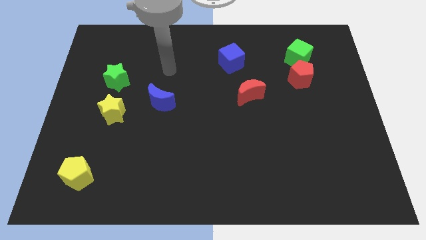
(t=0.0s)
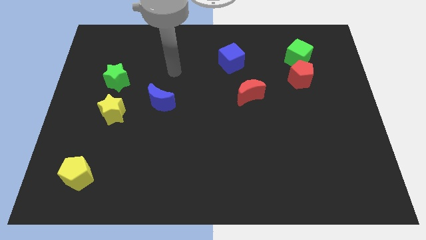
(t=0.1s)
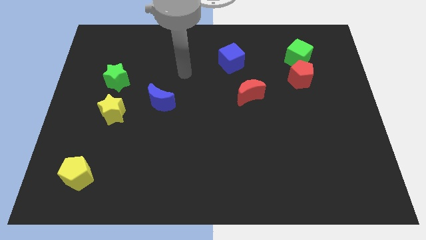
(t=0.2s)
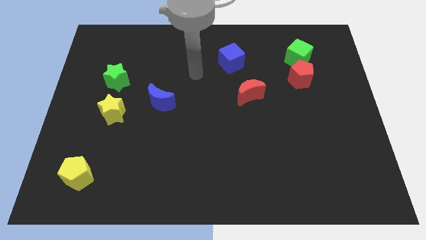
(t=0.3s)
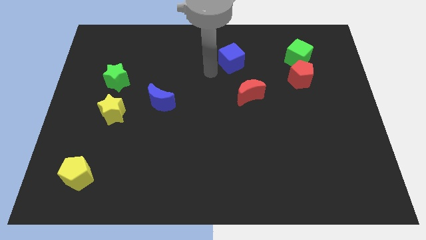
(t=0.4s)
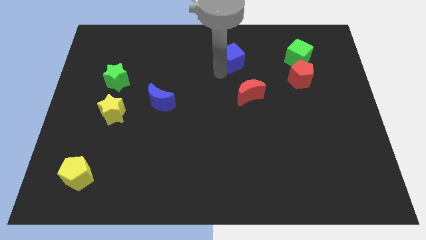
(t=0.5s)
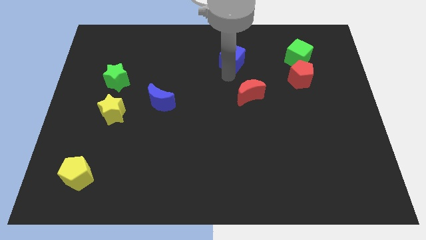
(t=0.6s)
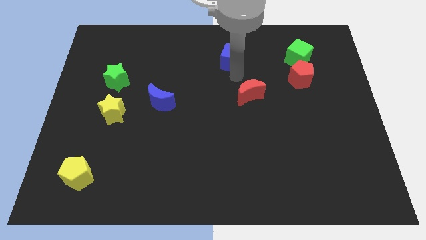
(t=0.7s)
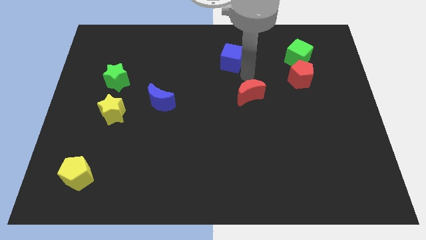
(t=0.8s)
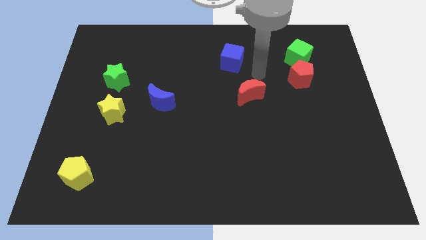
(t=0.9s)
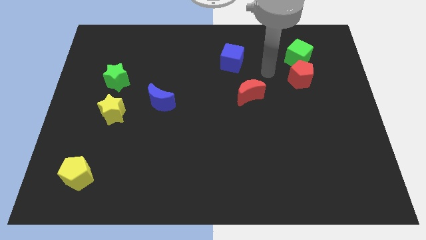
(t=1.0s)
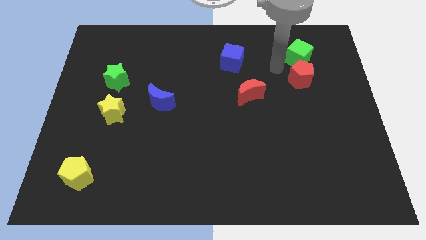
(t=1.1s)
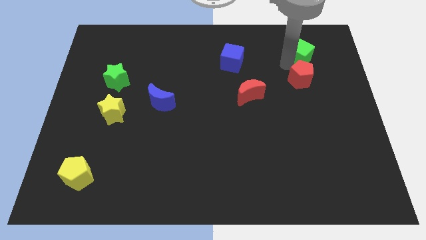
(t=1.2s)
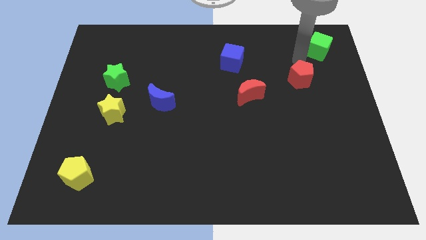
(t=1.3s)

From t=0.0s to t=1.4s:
pull the red pentagon apart from the green cube

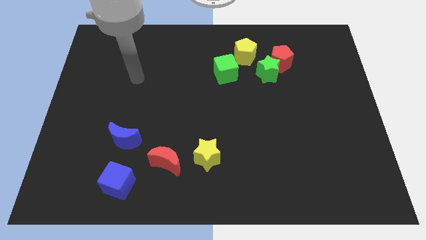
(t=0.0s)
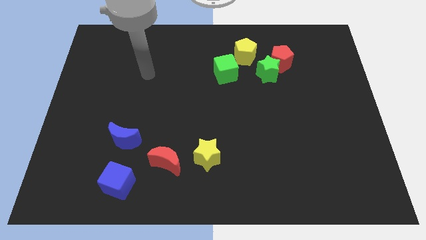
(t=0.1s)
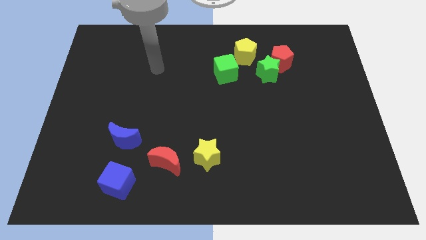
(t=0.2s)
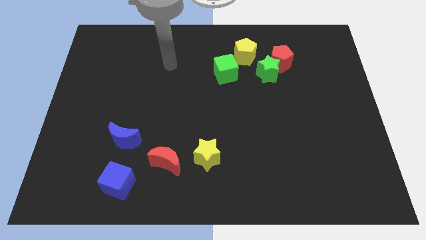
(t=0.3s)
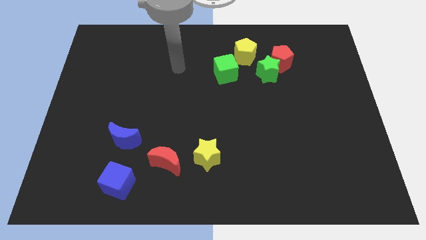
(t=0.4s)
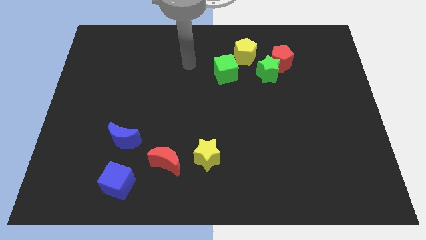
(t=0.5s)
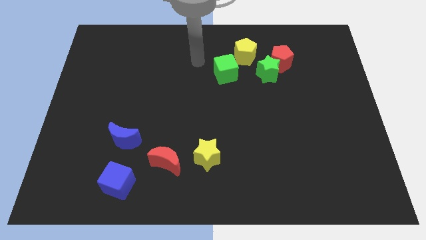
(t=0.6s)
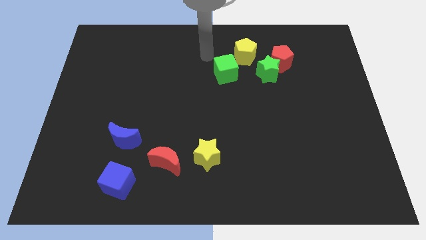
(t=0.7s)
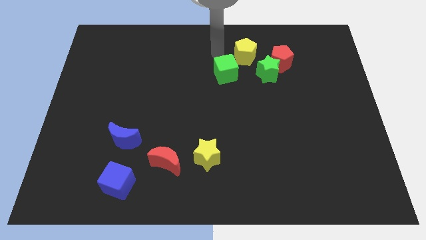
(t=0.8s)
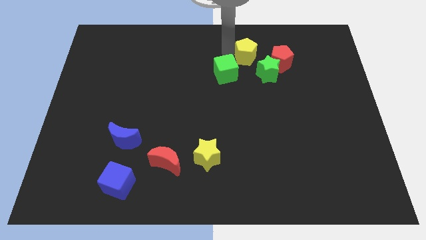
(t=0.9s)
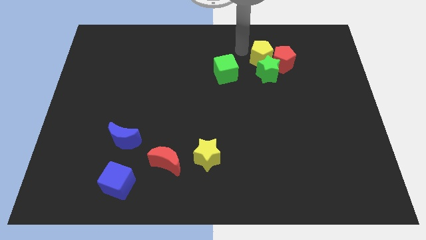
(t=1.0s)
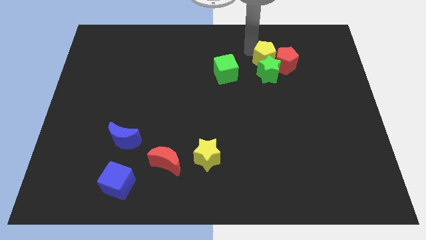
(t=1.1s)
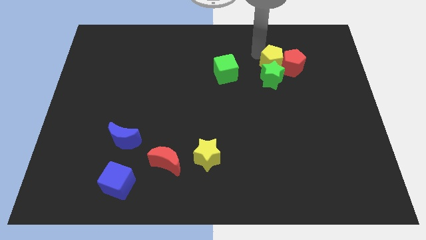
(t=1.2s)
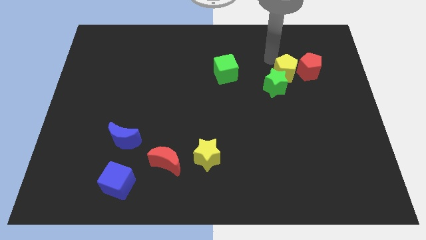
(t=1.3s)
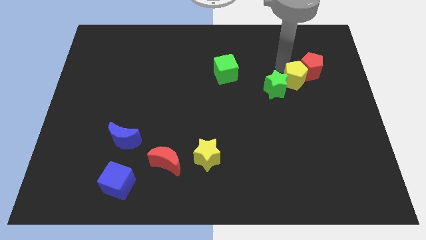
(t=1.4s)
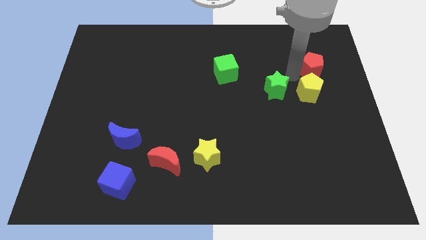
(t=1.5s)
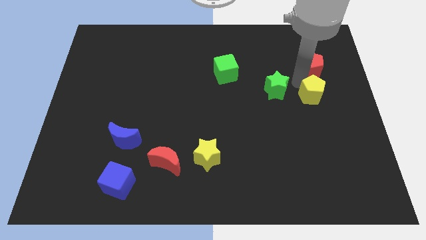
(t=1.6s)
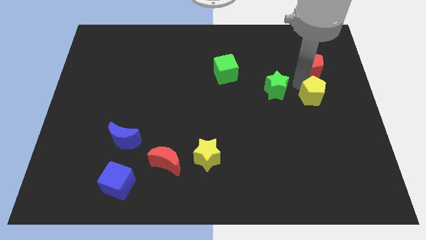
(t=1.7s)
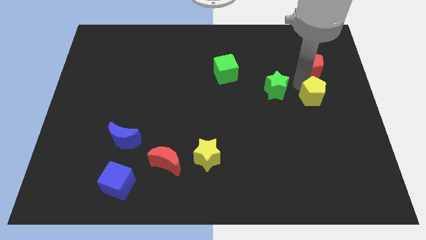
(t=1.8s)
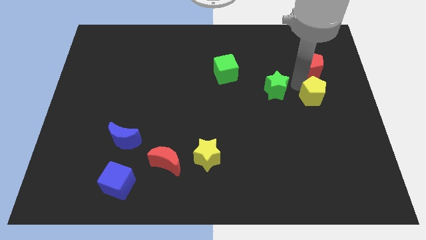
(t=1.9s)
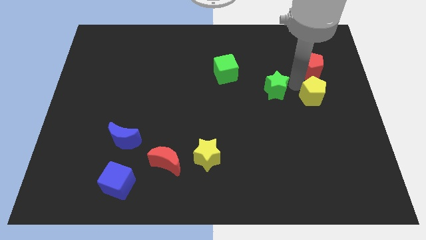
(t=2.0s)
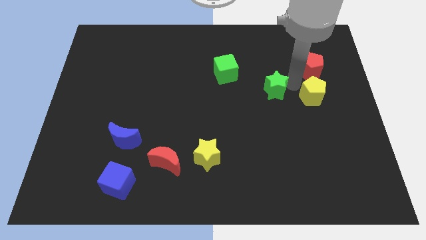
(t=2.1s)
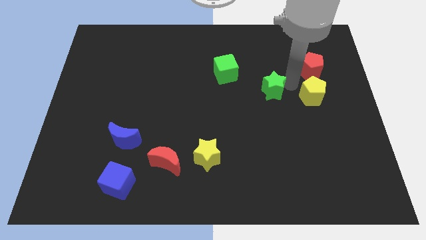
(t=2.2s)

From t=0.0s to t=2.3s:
pull the green star apart from the red pentagon and yellow pentagon

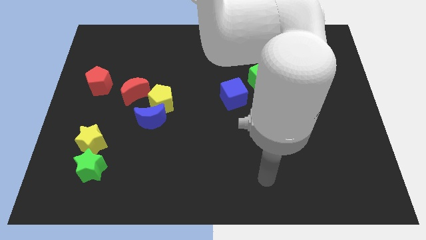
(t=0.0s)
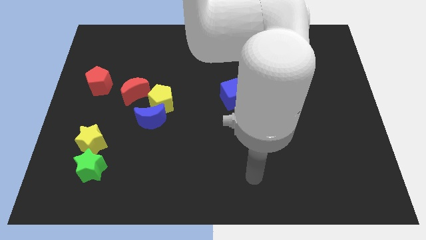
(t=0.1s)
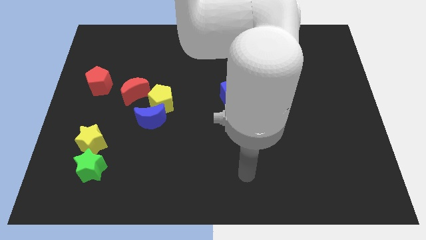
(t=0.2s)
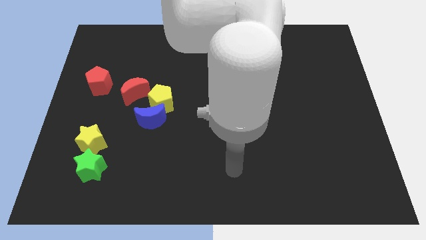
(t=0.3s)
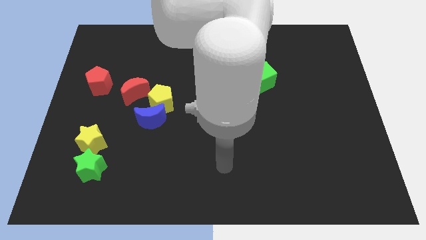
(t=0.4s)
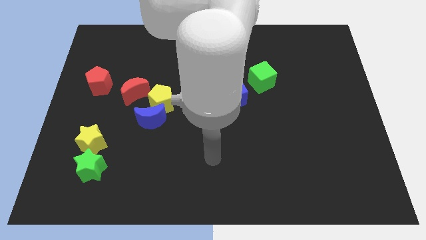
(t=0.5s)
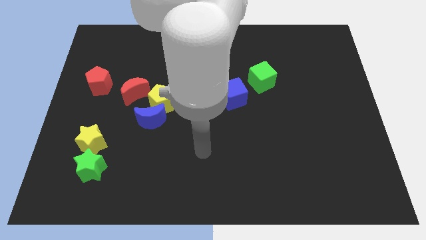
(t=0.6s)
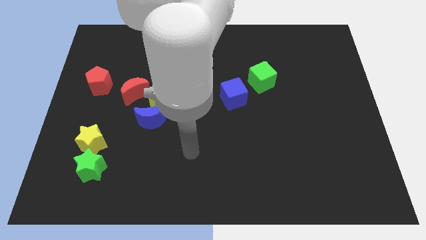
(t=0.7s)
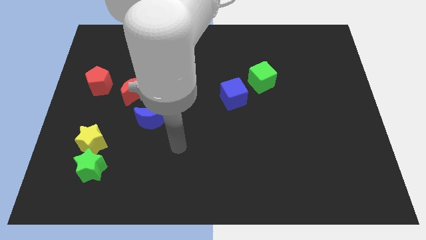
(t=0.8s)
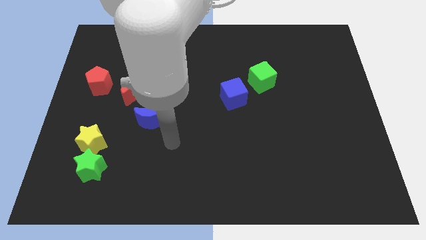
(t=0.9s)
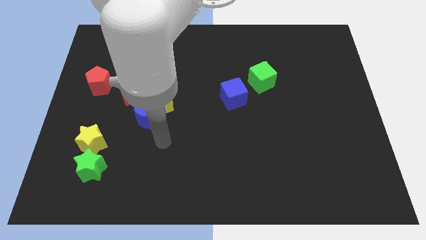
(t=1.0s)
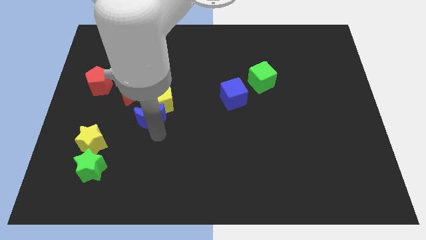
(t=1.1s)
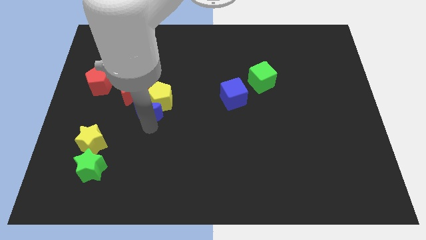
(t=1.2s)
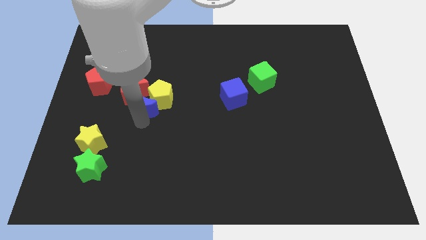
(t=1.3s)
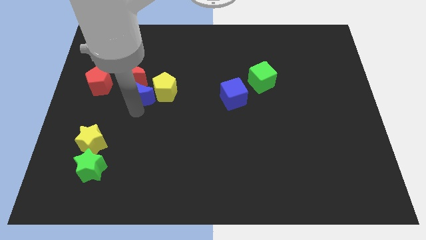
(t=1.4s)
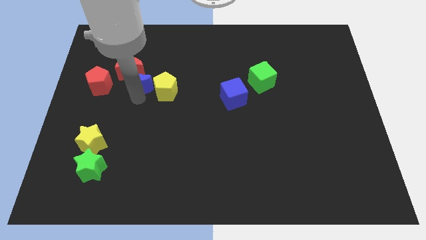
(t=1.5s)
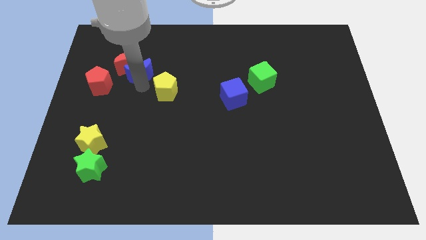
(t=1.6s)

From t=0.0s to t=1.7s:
separate the yellow pentagon from the blue moon and red moon

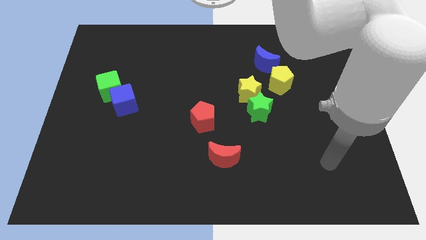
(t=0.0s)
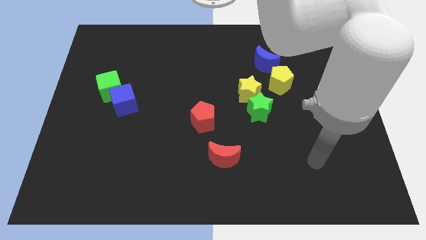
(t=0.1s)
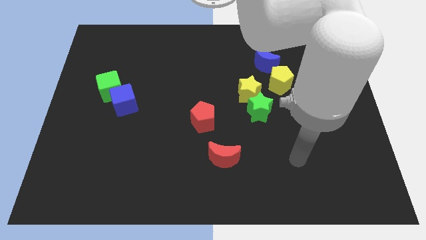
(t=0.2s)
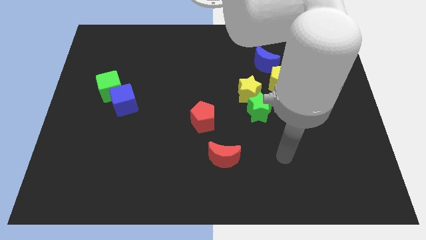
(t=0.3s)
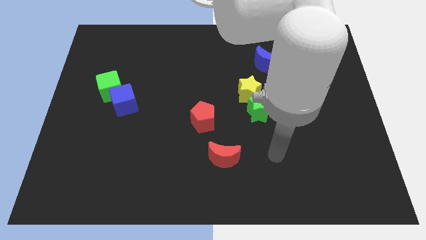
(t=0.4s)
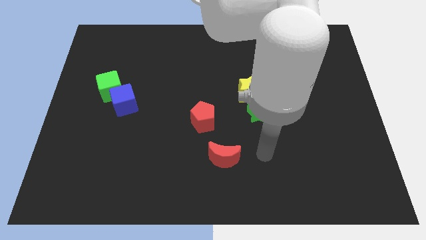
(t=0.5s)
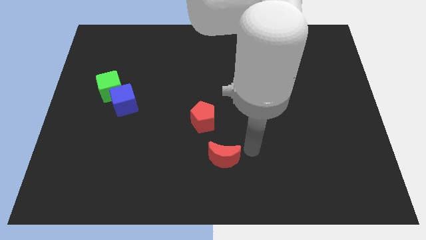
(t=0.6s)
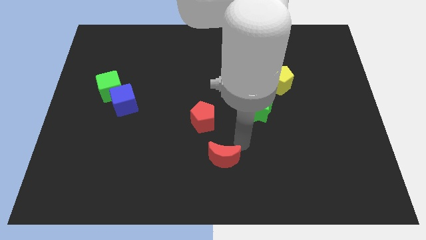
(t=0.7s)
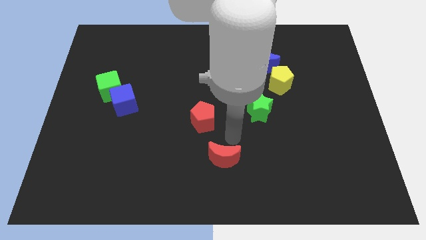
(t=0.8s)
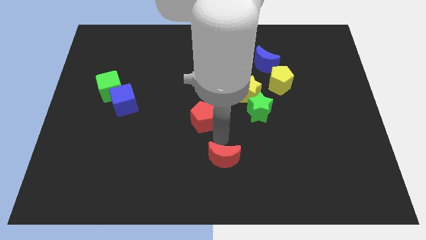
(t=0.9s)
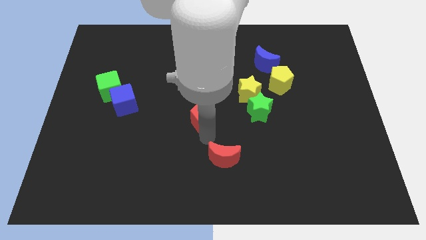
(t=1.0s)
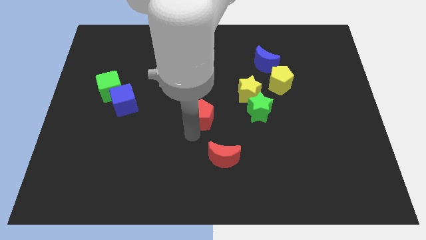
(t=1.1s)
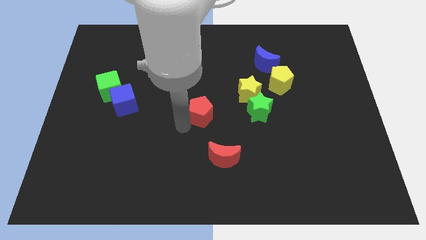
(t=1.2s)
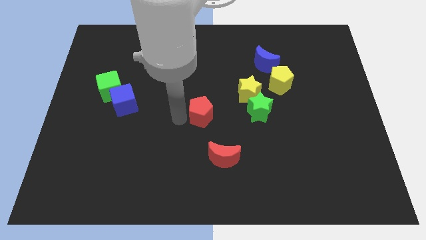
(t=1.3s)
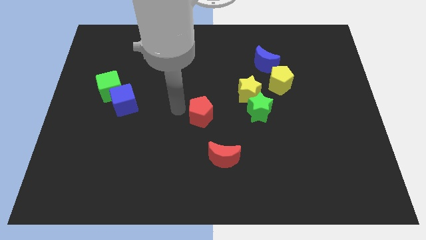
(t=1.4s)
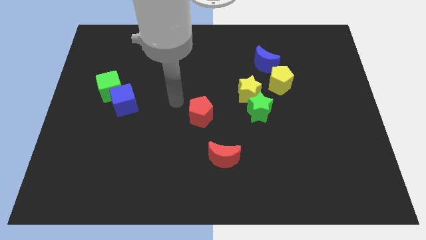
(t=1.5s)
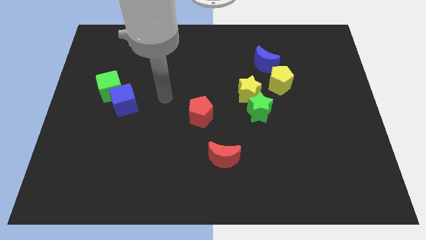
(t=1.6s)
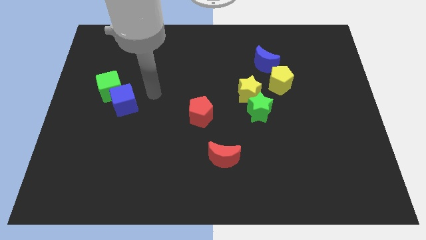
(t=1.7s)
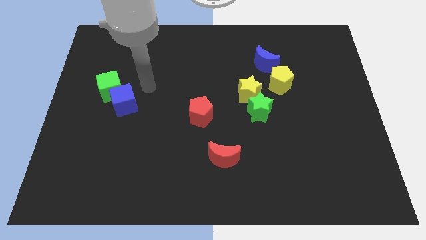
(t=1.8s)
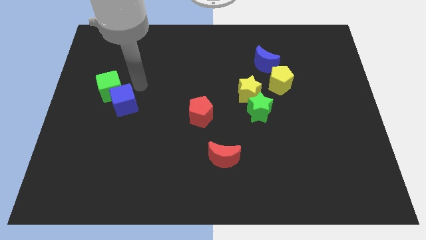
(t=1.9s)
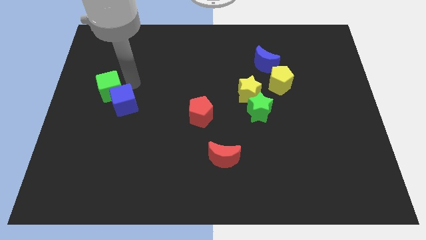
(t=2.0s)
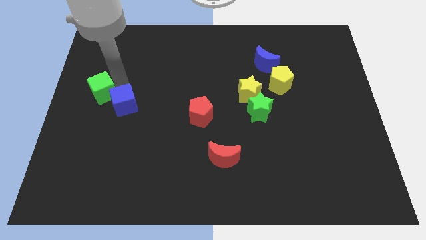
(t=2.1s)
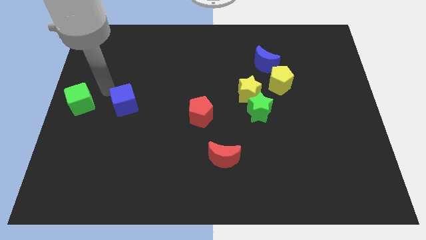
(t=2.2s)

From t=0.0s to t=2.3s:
move the blue cube away from the green cube

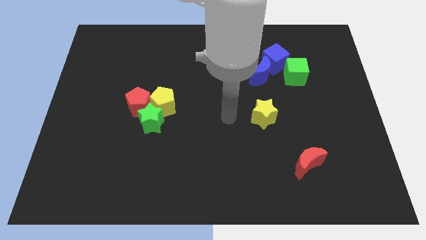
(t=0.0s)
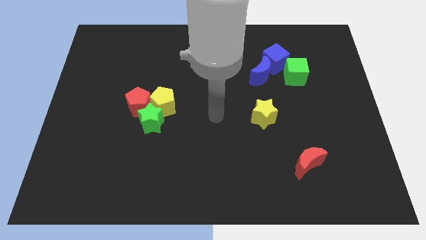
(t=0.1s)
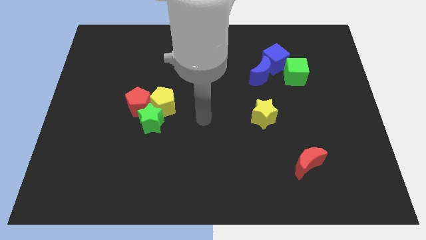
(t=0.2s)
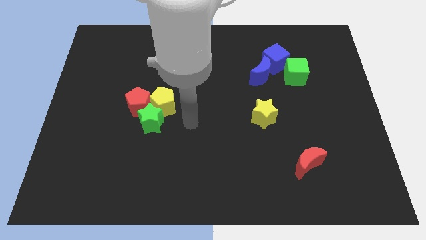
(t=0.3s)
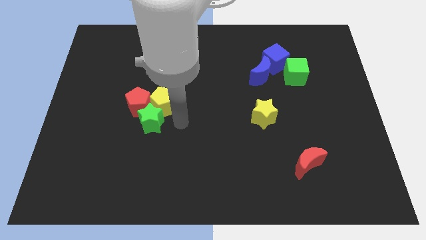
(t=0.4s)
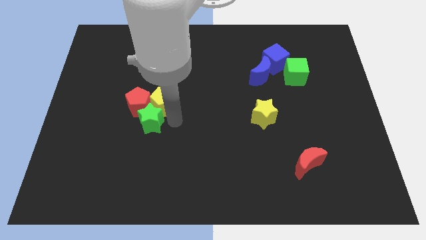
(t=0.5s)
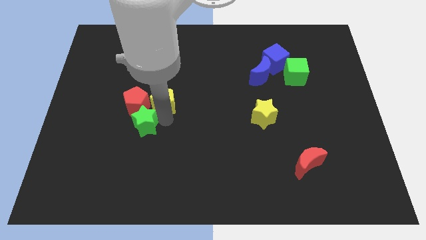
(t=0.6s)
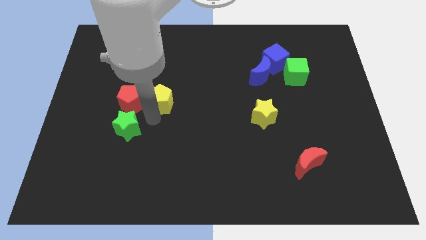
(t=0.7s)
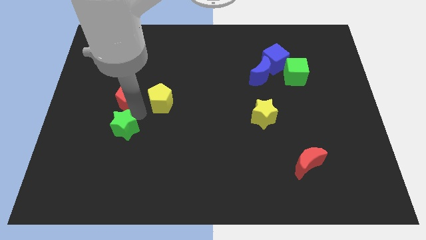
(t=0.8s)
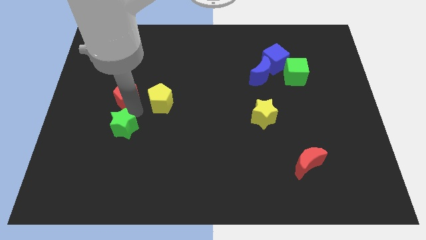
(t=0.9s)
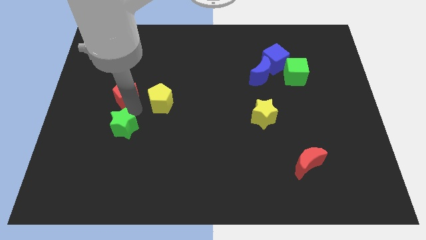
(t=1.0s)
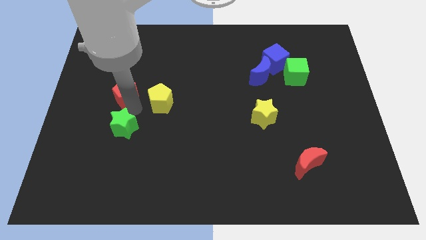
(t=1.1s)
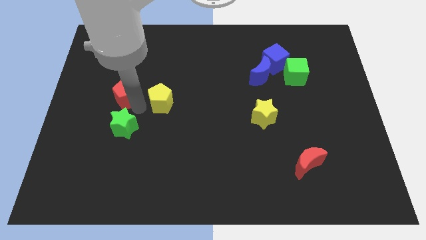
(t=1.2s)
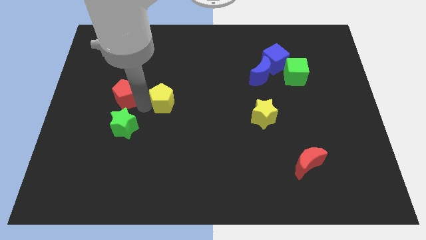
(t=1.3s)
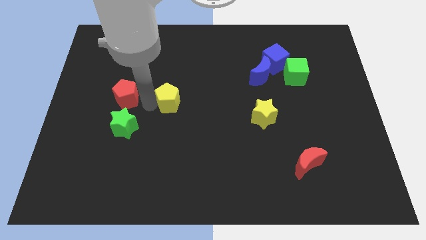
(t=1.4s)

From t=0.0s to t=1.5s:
pull the yellow pentagon apart from the green star and red pentagon
